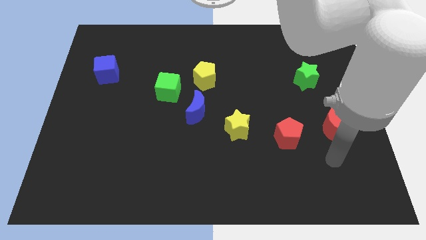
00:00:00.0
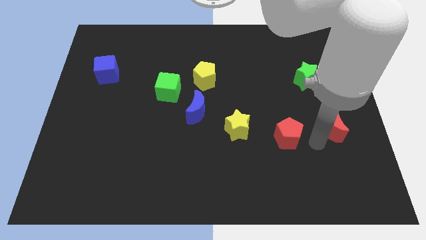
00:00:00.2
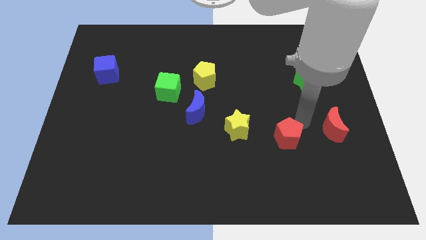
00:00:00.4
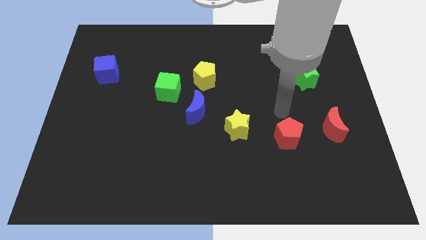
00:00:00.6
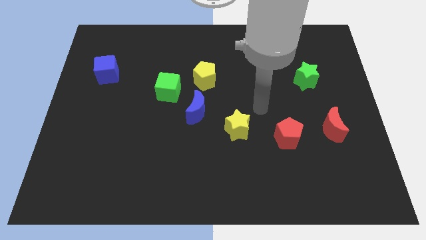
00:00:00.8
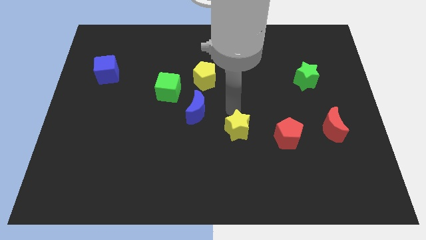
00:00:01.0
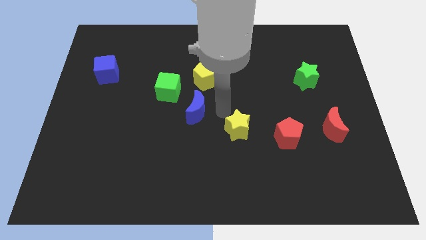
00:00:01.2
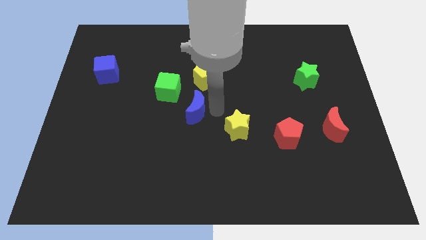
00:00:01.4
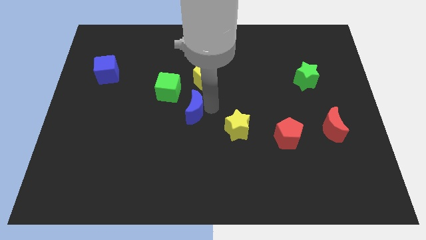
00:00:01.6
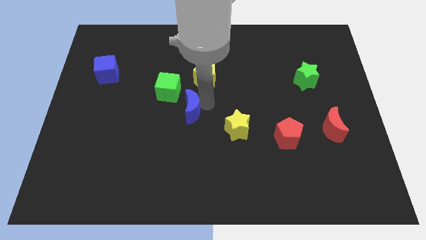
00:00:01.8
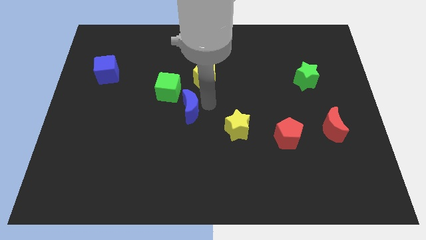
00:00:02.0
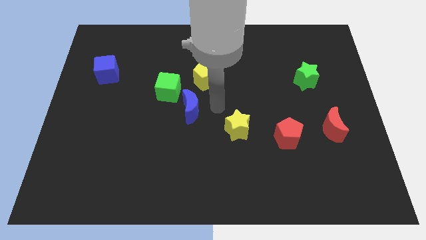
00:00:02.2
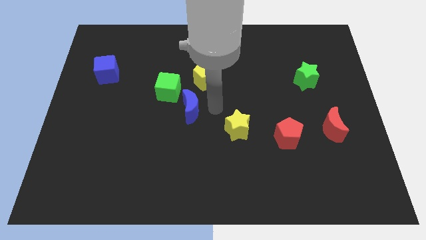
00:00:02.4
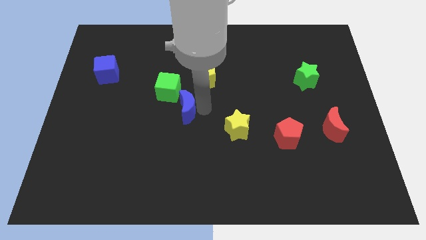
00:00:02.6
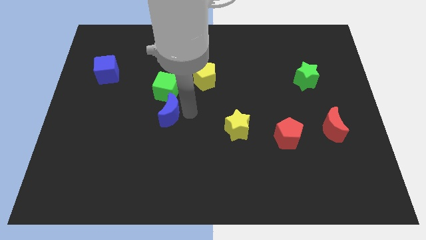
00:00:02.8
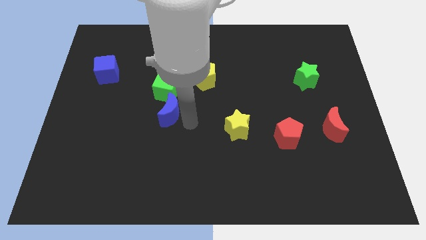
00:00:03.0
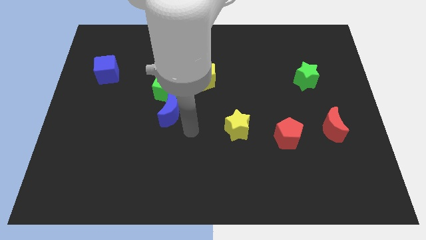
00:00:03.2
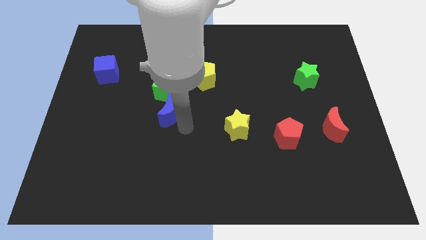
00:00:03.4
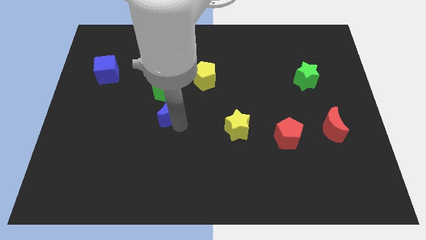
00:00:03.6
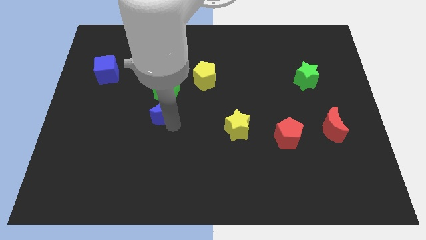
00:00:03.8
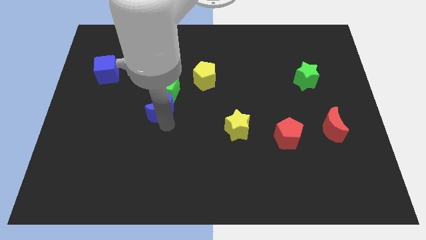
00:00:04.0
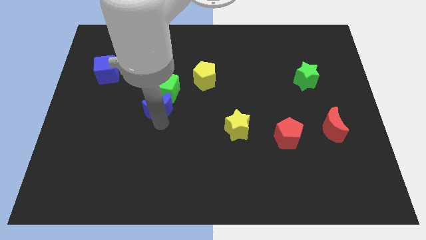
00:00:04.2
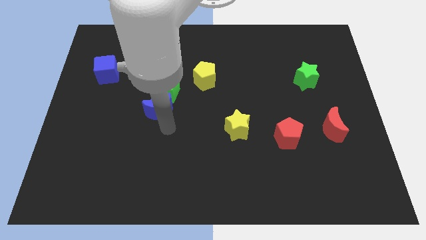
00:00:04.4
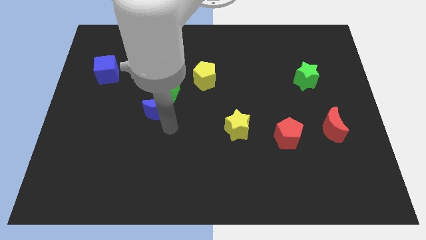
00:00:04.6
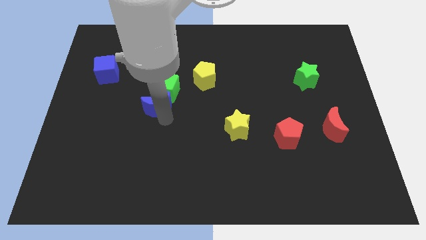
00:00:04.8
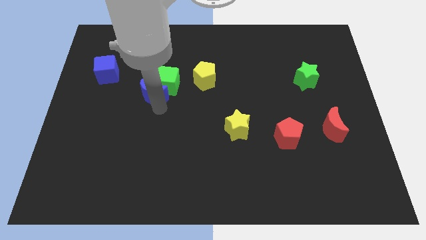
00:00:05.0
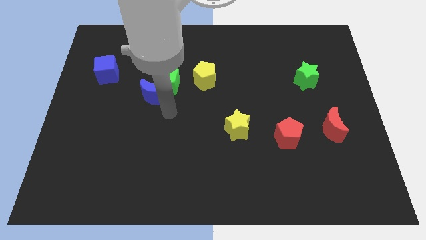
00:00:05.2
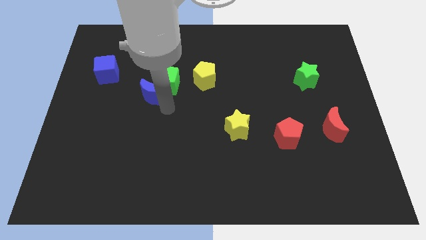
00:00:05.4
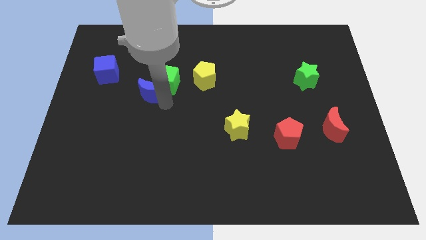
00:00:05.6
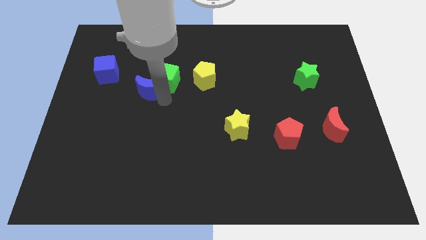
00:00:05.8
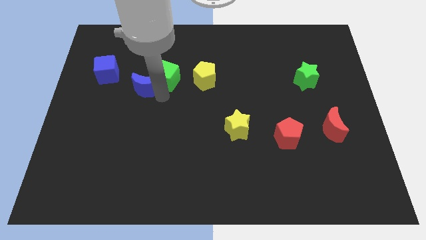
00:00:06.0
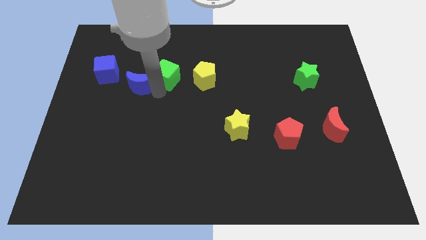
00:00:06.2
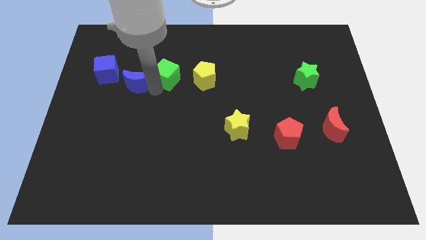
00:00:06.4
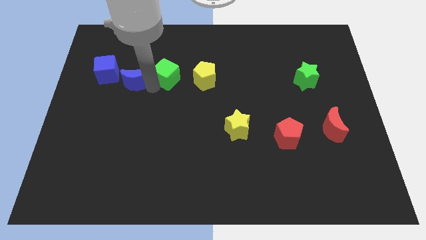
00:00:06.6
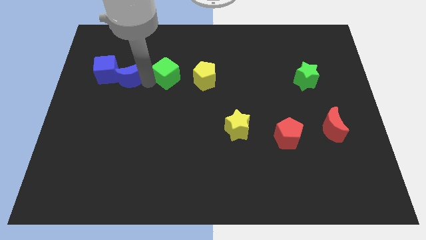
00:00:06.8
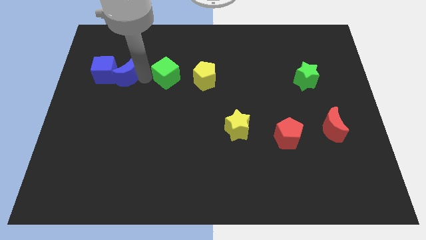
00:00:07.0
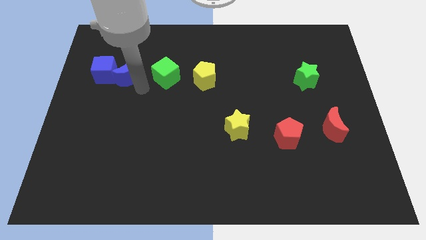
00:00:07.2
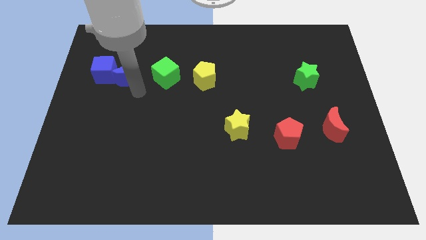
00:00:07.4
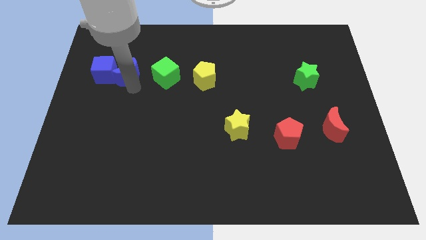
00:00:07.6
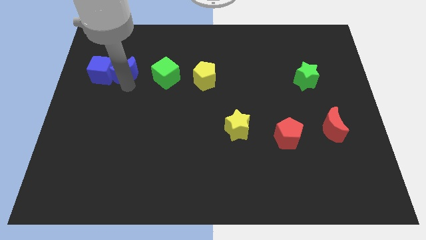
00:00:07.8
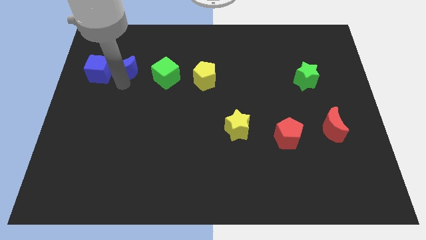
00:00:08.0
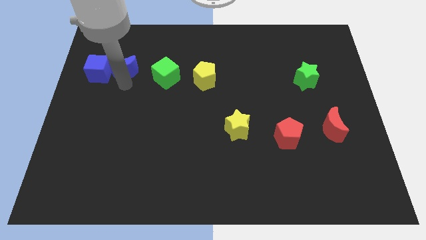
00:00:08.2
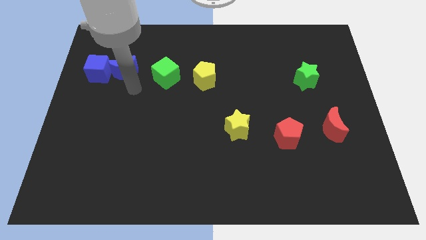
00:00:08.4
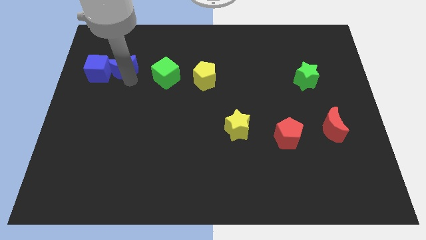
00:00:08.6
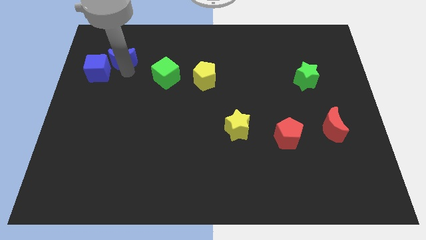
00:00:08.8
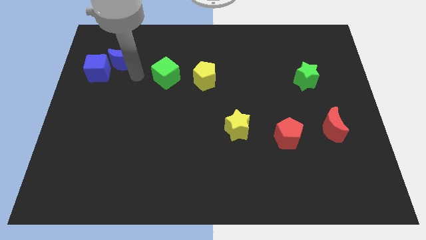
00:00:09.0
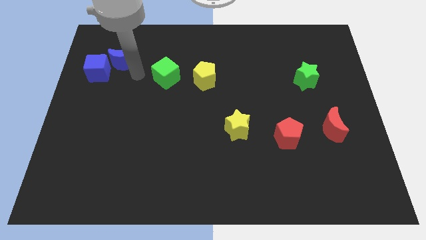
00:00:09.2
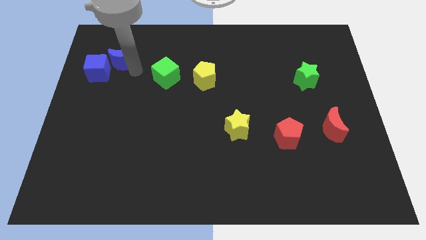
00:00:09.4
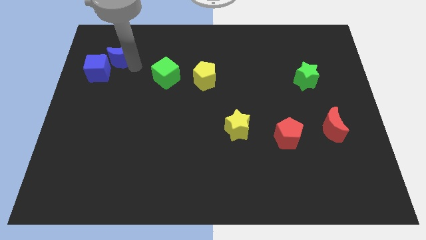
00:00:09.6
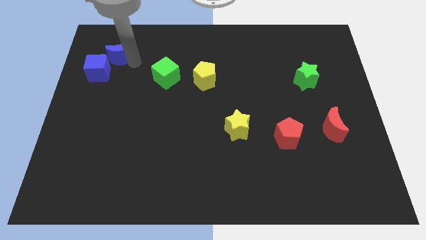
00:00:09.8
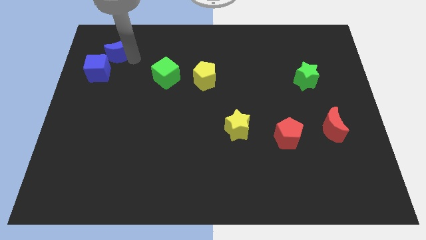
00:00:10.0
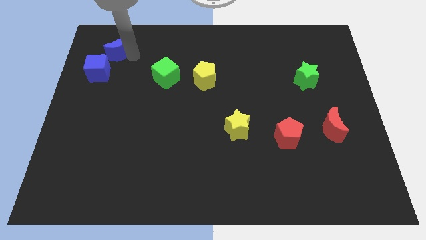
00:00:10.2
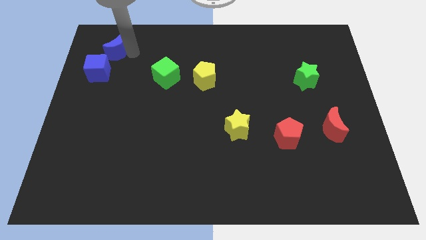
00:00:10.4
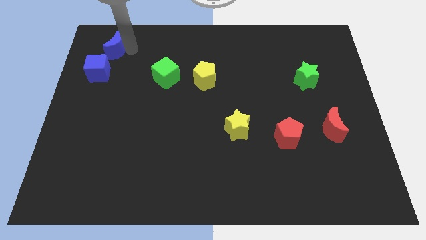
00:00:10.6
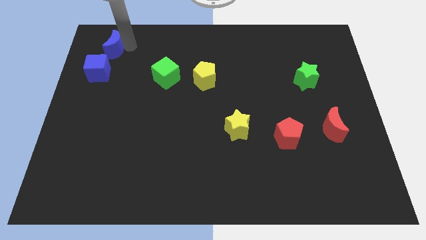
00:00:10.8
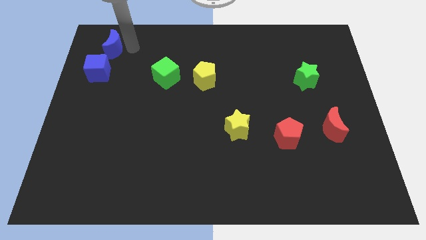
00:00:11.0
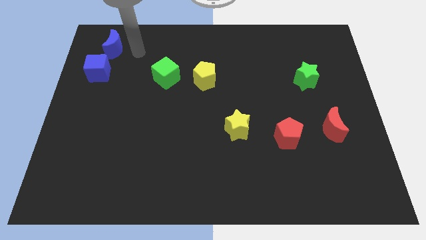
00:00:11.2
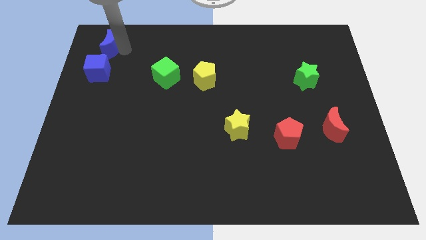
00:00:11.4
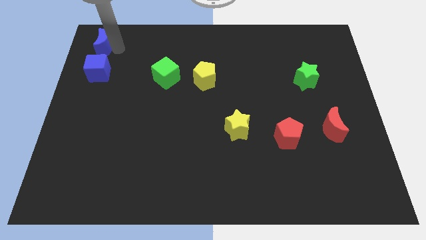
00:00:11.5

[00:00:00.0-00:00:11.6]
push the blue moon to the upper left corner

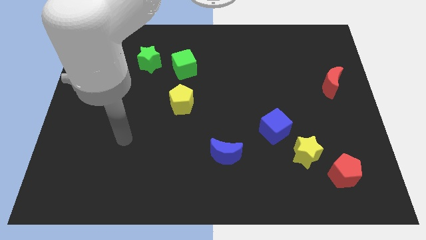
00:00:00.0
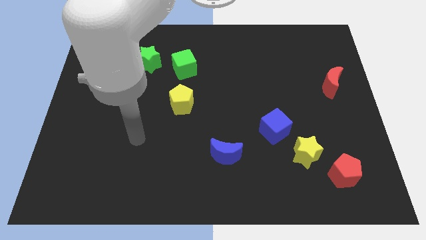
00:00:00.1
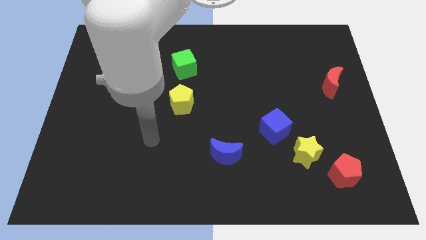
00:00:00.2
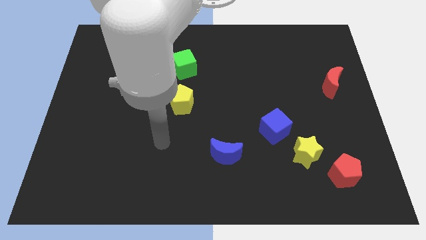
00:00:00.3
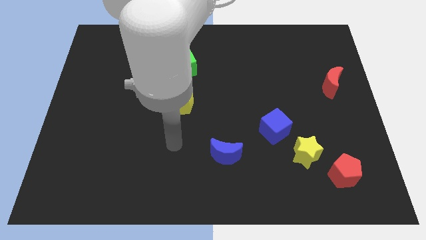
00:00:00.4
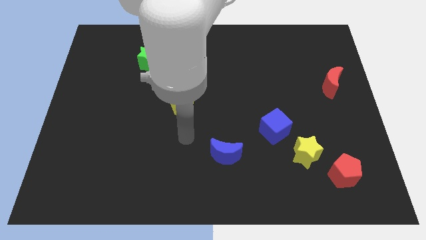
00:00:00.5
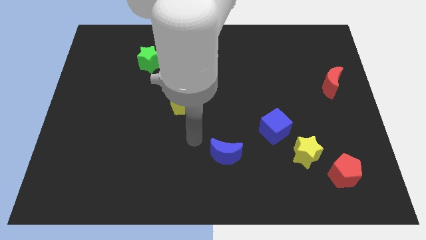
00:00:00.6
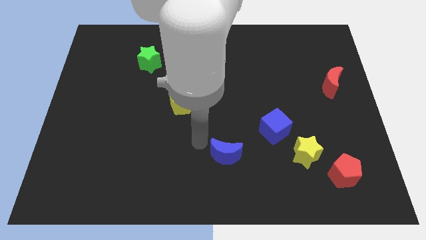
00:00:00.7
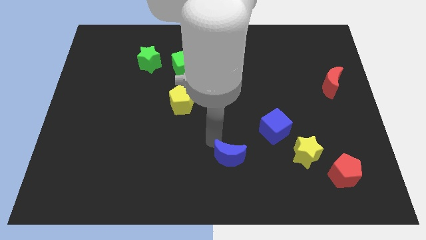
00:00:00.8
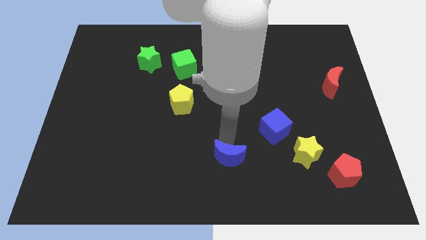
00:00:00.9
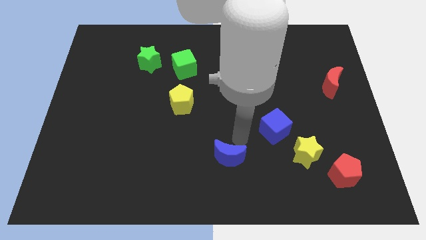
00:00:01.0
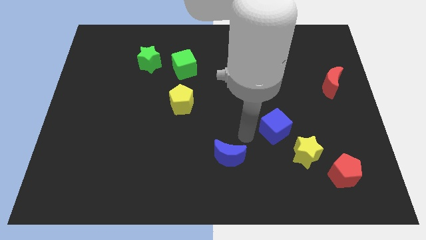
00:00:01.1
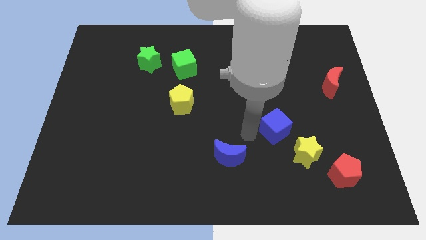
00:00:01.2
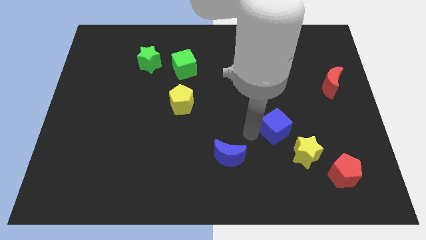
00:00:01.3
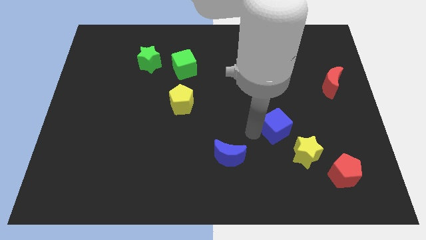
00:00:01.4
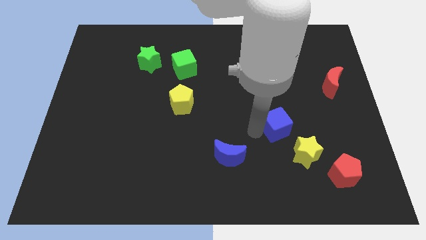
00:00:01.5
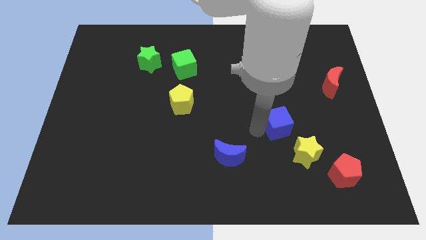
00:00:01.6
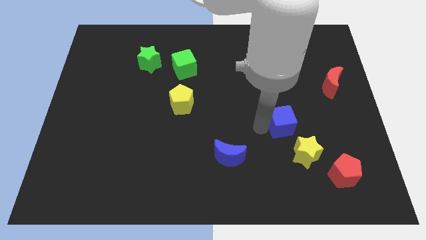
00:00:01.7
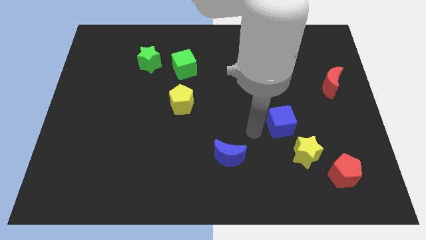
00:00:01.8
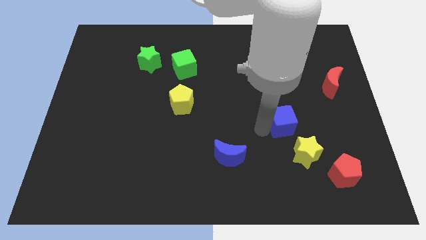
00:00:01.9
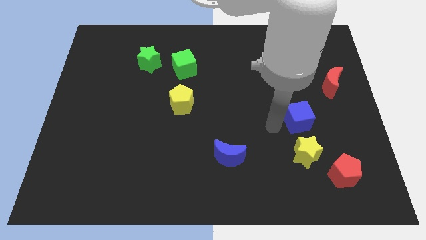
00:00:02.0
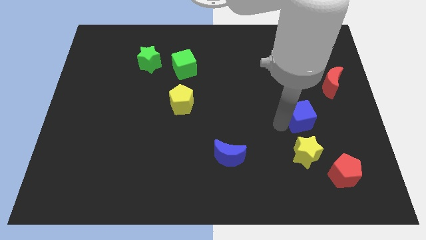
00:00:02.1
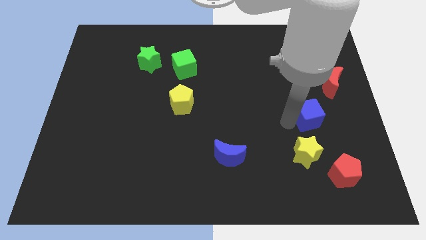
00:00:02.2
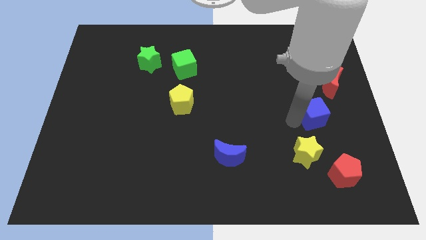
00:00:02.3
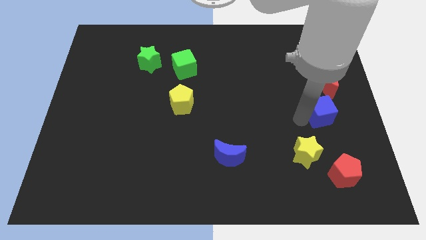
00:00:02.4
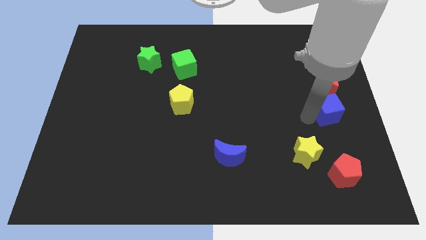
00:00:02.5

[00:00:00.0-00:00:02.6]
push the blue cube to the center right
